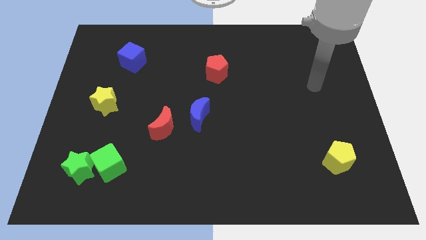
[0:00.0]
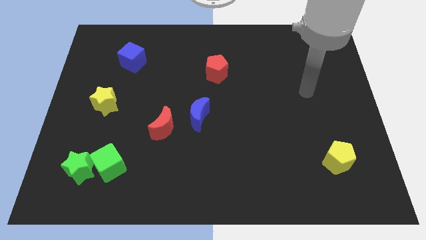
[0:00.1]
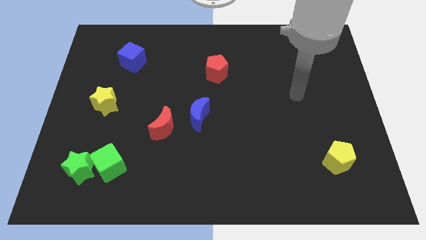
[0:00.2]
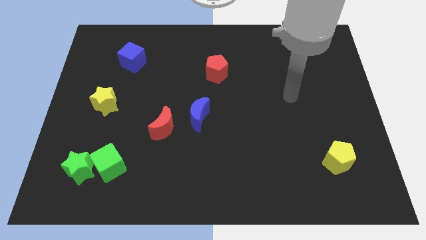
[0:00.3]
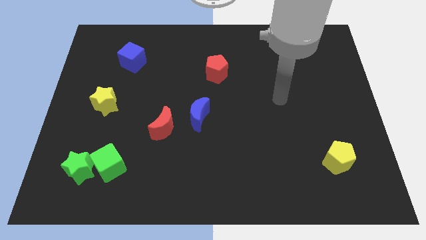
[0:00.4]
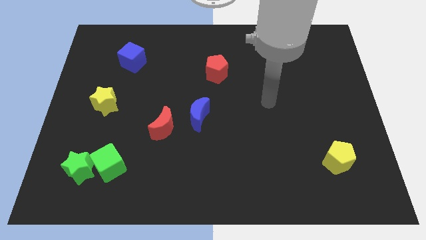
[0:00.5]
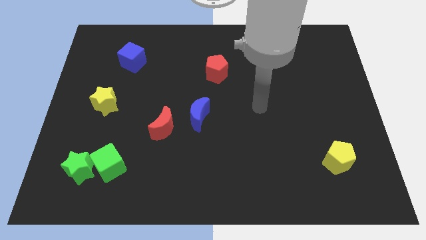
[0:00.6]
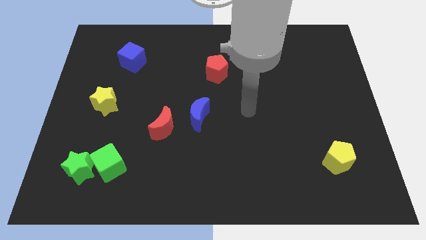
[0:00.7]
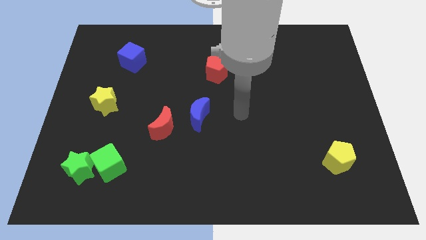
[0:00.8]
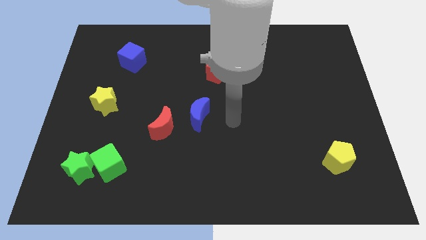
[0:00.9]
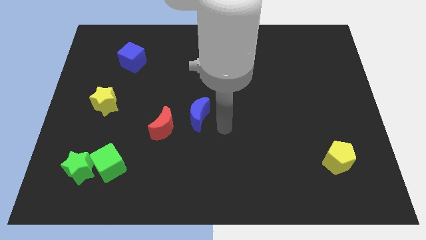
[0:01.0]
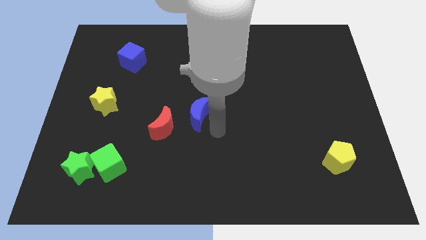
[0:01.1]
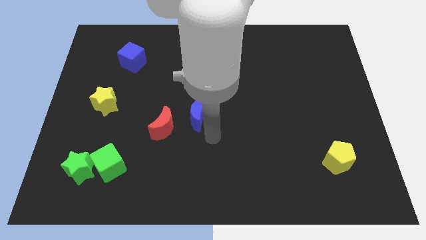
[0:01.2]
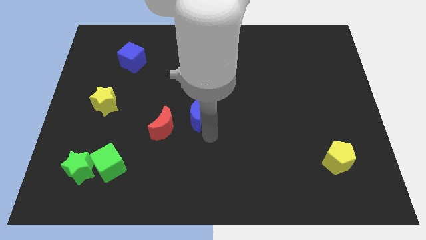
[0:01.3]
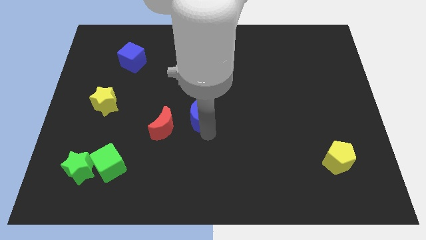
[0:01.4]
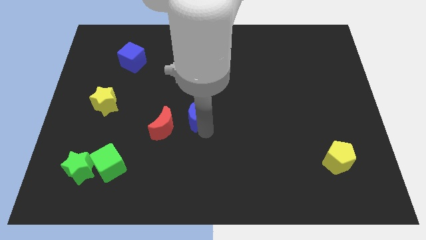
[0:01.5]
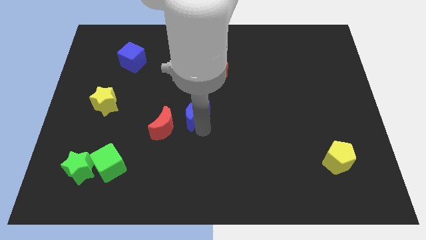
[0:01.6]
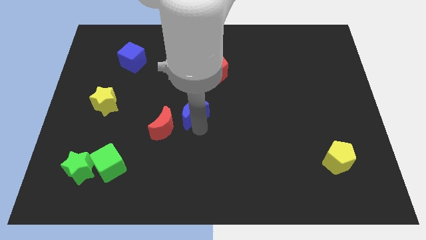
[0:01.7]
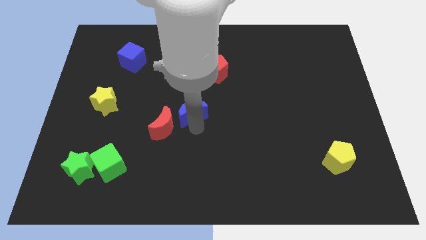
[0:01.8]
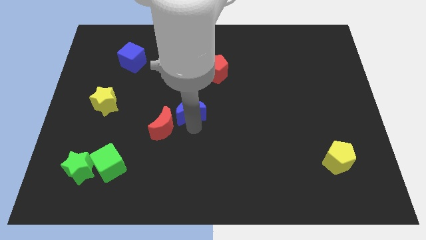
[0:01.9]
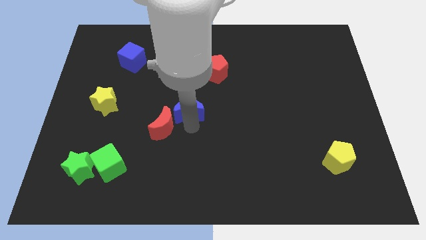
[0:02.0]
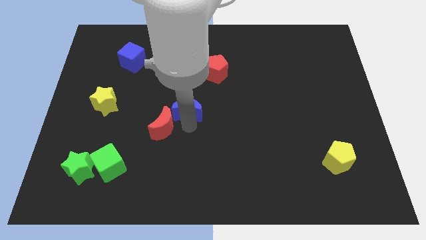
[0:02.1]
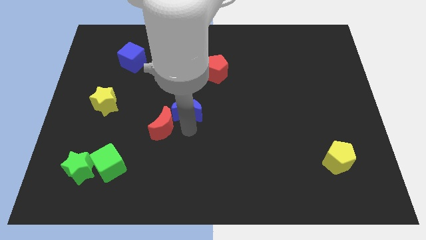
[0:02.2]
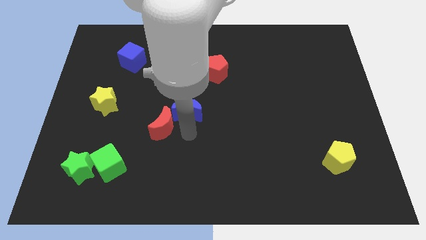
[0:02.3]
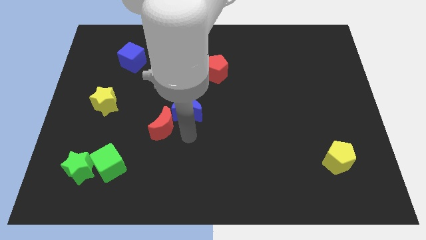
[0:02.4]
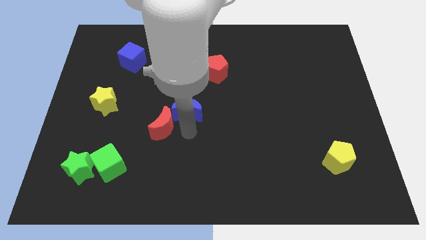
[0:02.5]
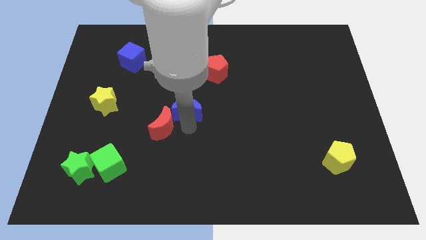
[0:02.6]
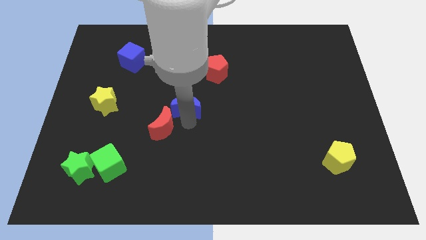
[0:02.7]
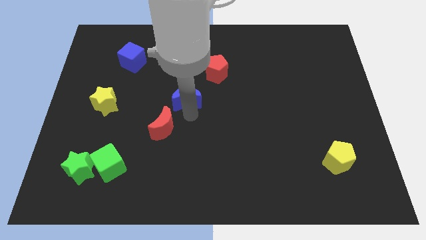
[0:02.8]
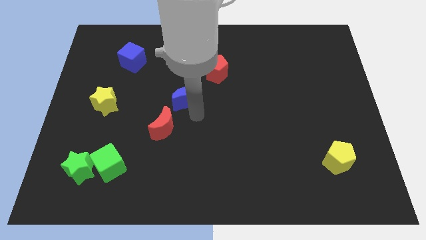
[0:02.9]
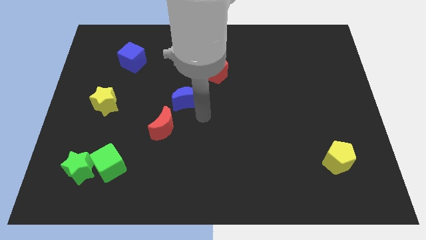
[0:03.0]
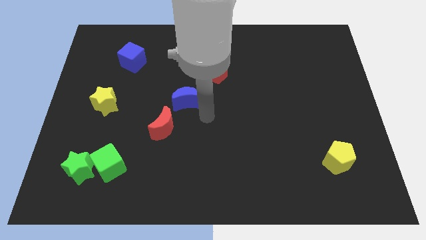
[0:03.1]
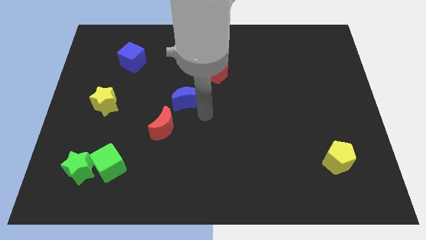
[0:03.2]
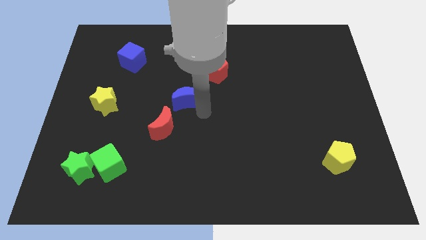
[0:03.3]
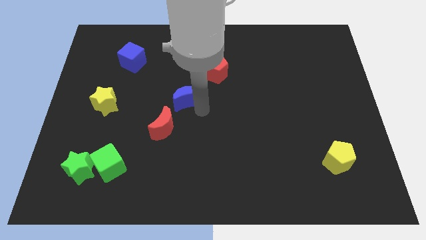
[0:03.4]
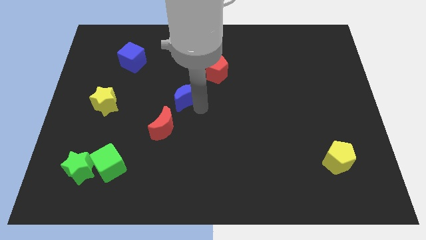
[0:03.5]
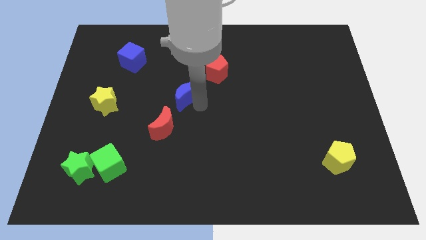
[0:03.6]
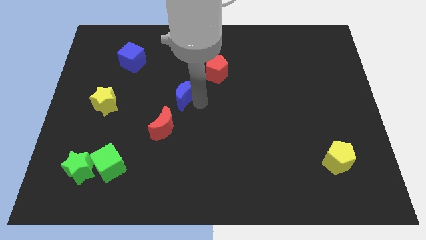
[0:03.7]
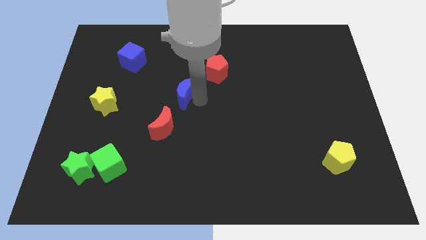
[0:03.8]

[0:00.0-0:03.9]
push the blue moon somewhat upwards and then left

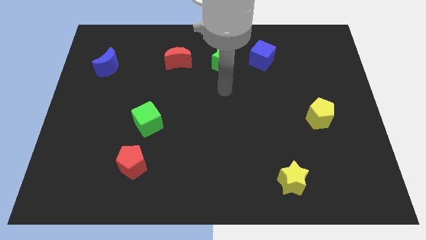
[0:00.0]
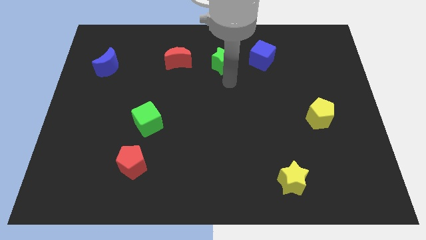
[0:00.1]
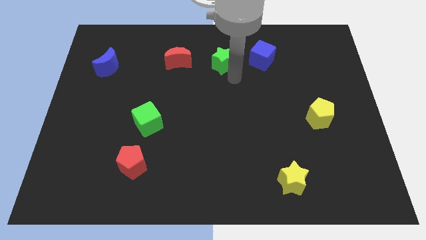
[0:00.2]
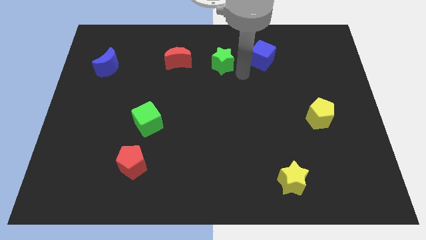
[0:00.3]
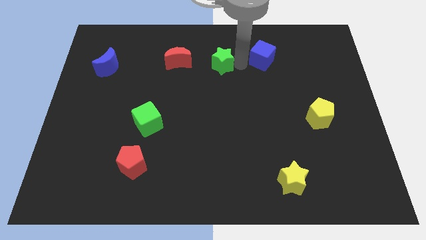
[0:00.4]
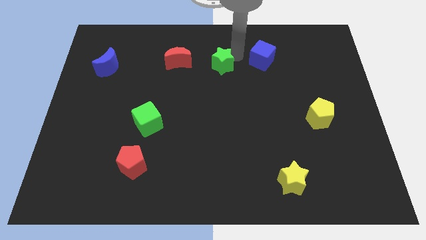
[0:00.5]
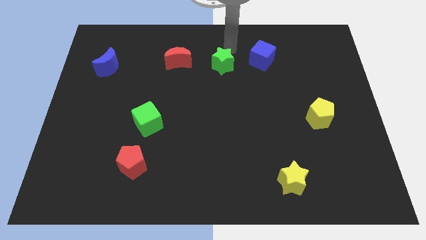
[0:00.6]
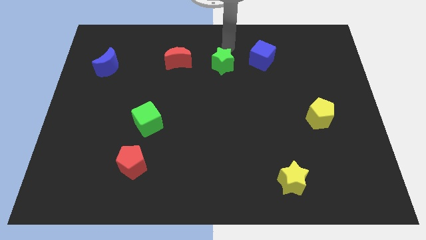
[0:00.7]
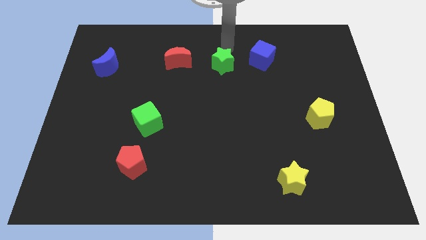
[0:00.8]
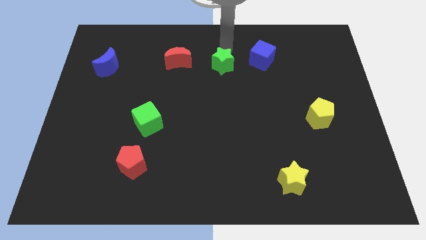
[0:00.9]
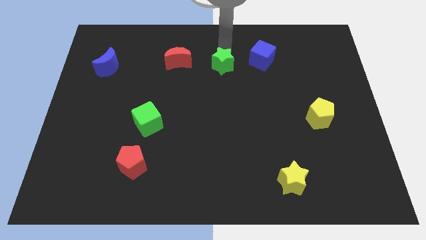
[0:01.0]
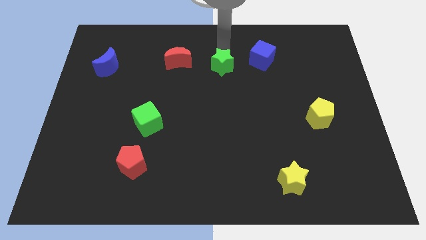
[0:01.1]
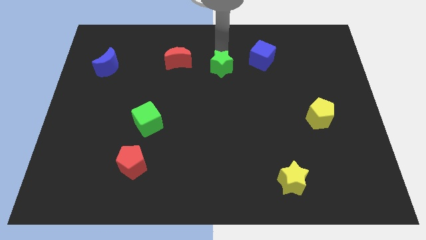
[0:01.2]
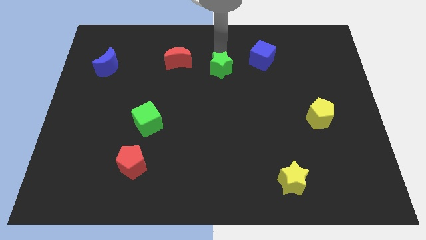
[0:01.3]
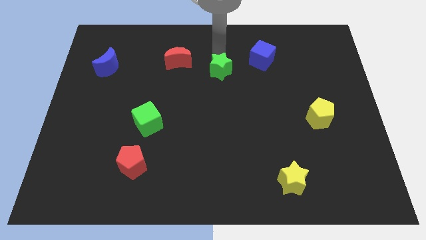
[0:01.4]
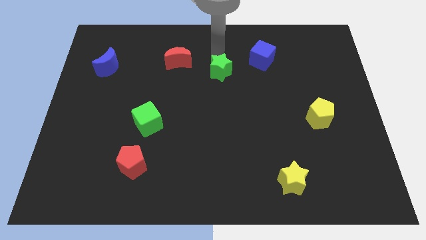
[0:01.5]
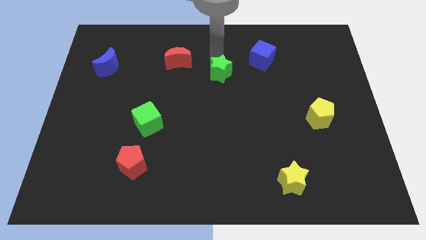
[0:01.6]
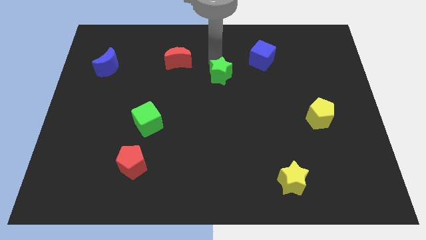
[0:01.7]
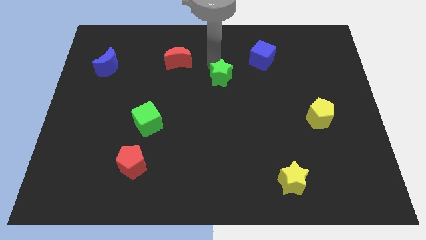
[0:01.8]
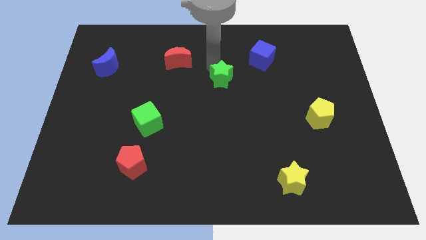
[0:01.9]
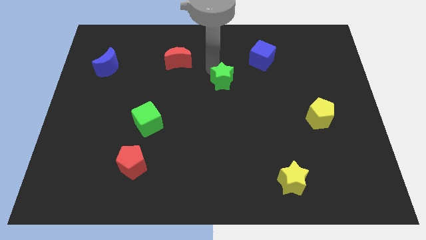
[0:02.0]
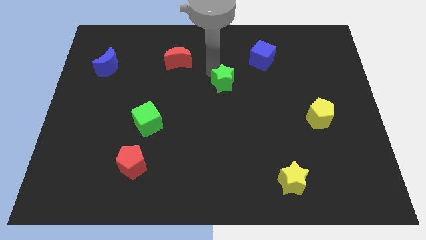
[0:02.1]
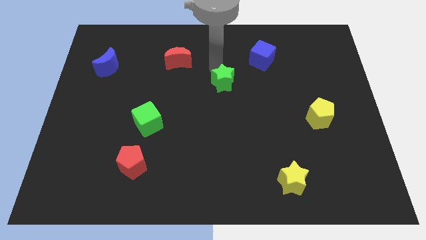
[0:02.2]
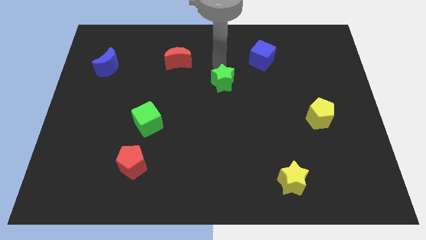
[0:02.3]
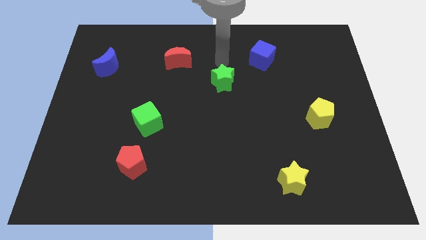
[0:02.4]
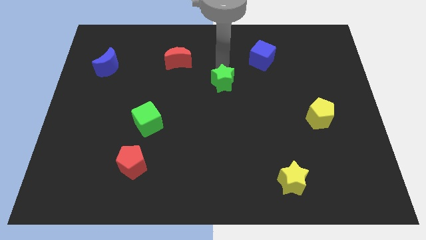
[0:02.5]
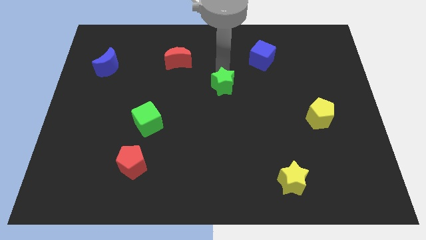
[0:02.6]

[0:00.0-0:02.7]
slightly push the green star down

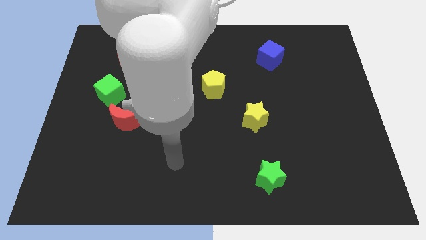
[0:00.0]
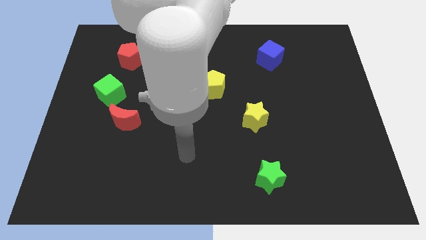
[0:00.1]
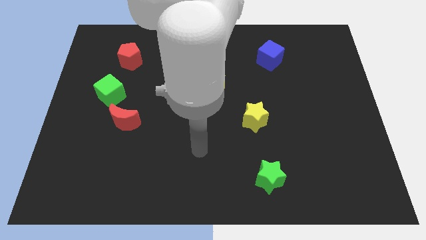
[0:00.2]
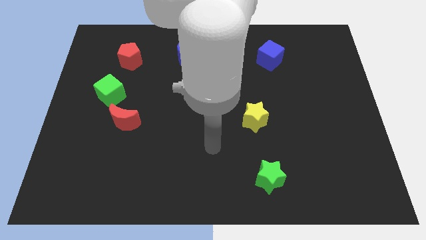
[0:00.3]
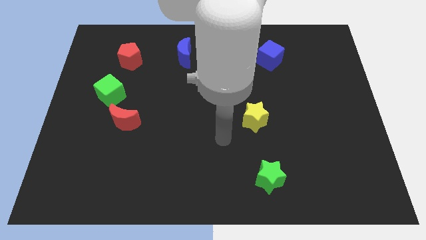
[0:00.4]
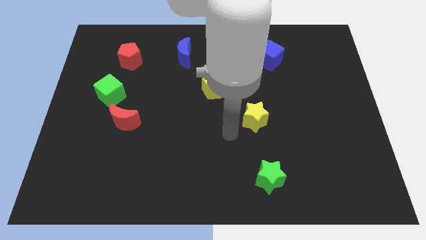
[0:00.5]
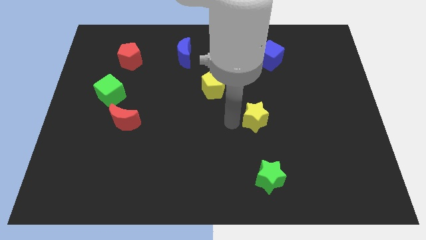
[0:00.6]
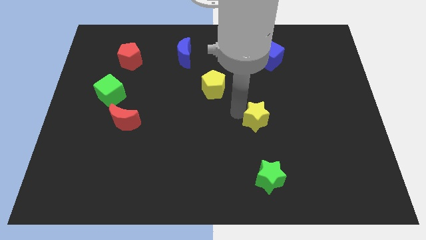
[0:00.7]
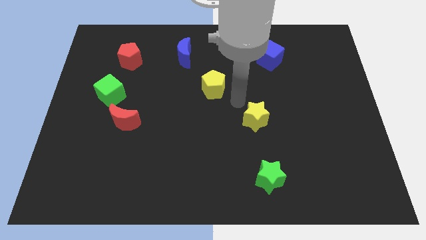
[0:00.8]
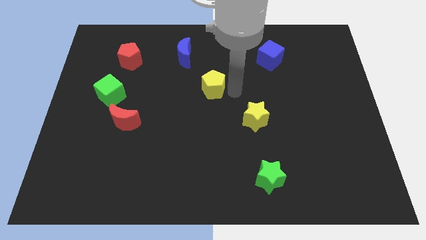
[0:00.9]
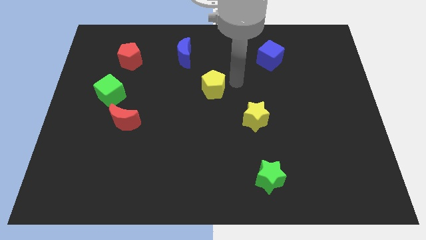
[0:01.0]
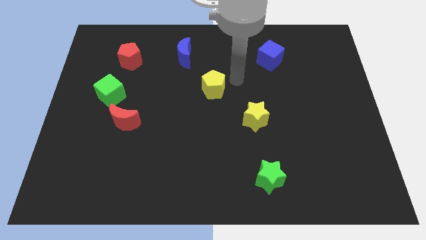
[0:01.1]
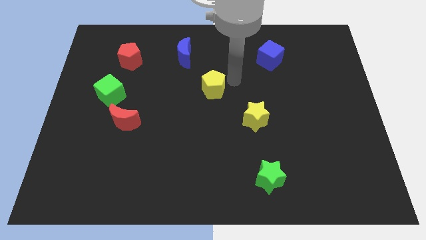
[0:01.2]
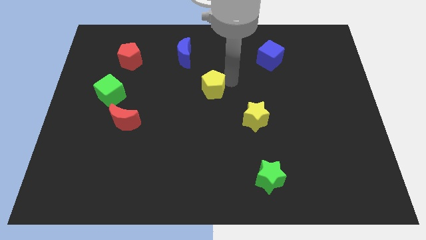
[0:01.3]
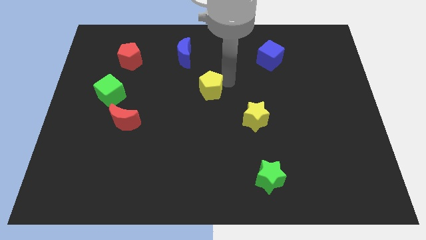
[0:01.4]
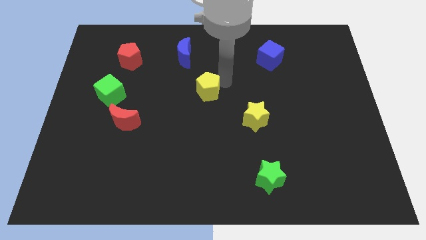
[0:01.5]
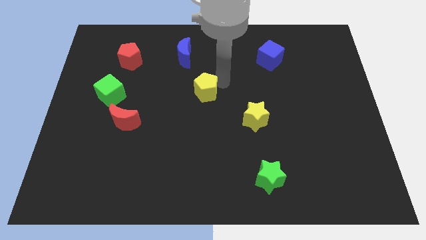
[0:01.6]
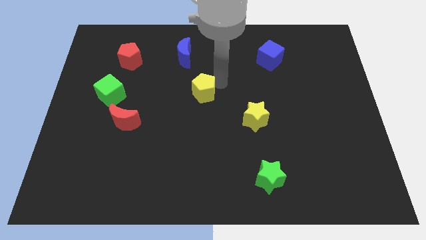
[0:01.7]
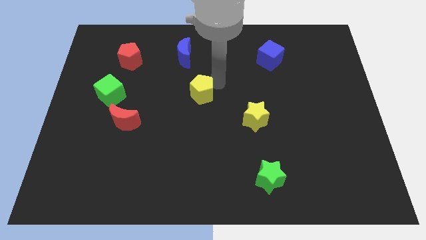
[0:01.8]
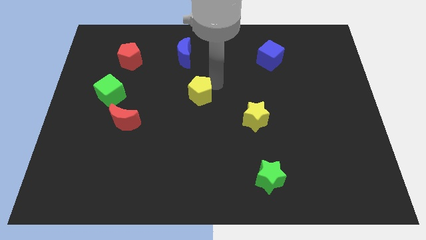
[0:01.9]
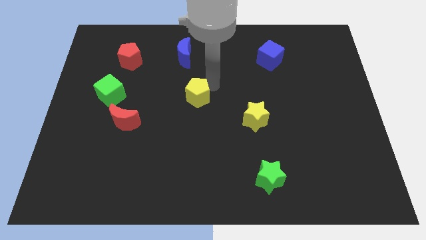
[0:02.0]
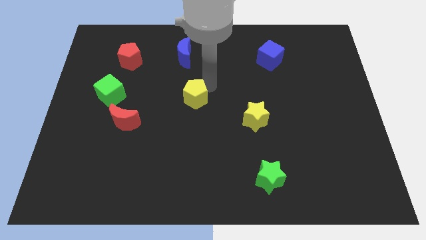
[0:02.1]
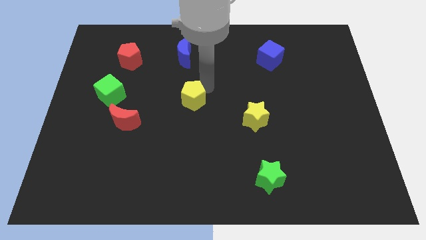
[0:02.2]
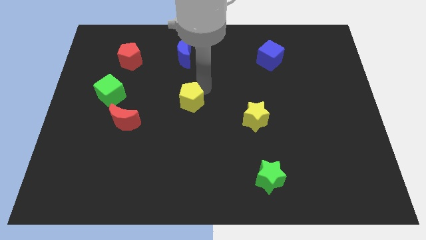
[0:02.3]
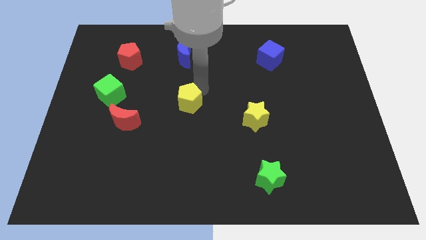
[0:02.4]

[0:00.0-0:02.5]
push the yellow pentagon diagonally down and left a little
